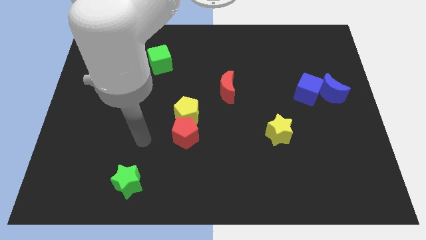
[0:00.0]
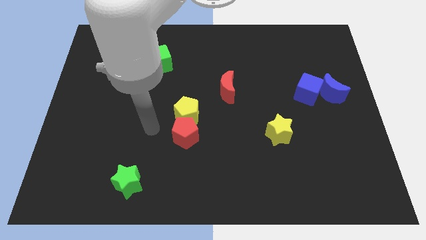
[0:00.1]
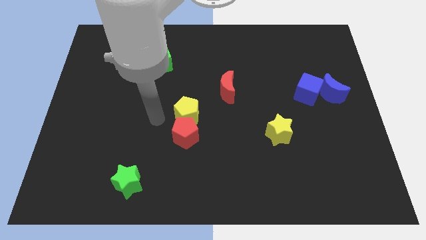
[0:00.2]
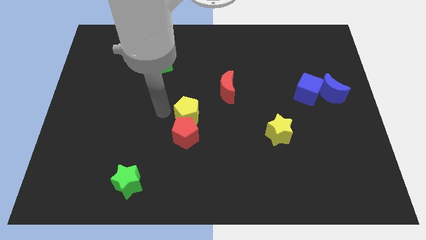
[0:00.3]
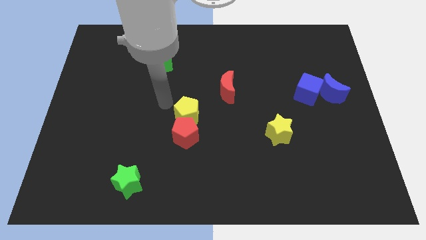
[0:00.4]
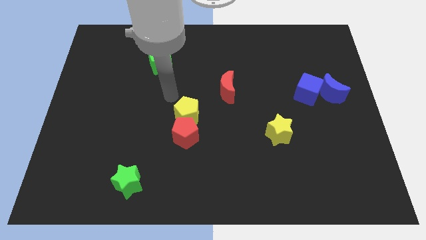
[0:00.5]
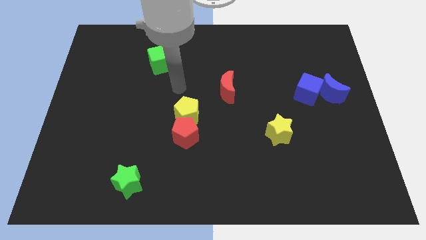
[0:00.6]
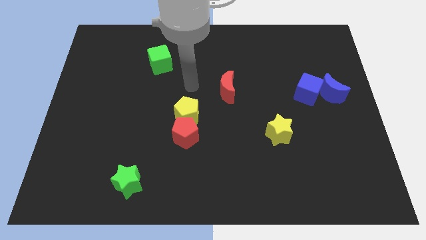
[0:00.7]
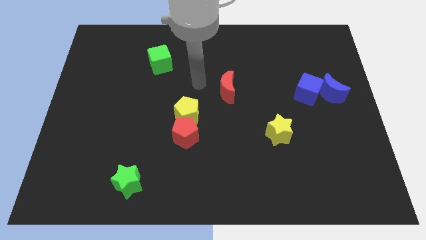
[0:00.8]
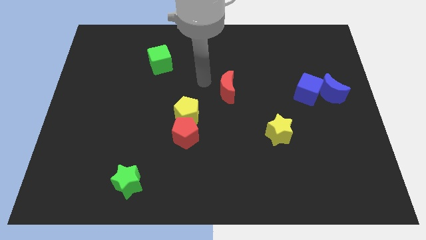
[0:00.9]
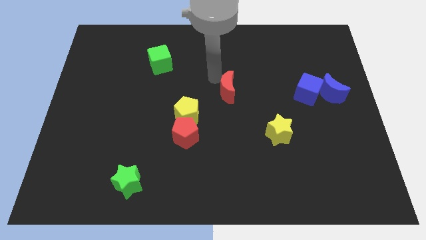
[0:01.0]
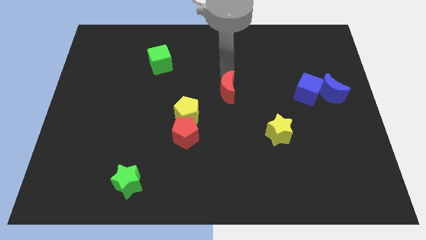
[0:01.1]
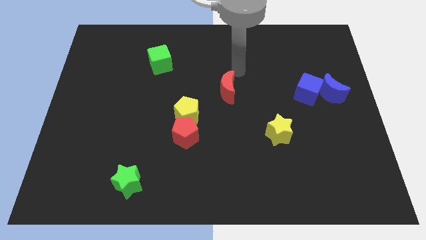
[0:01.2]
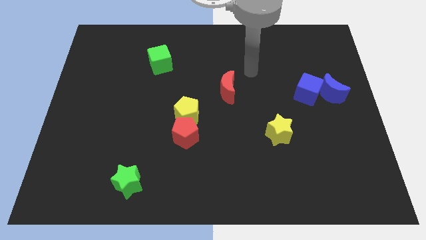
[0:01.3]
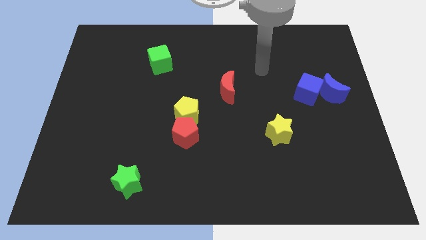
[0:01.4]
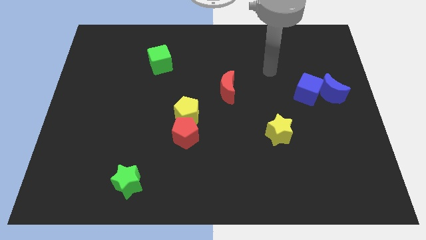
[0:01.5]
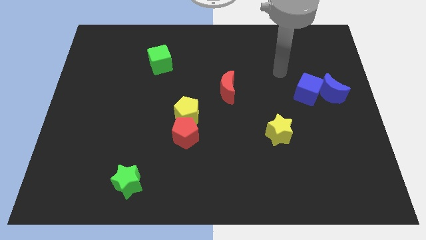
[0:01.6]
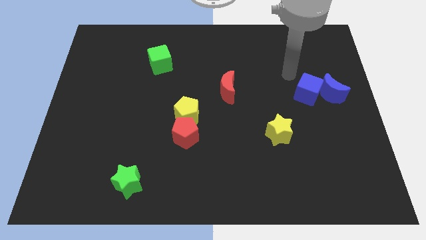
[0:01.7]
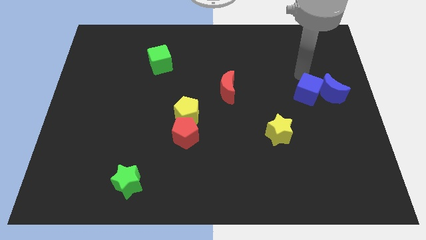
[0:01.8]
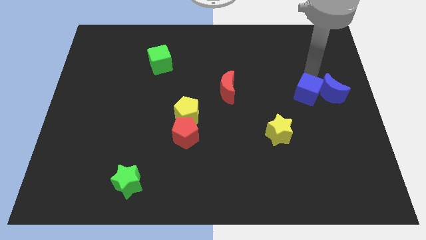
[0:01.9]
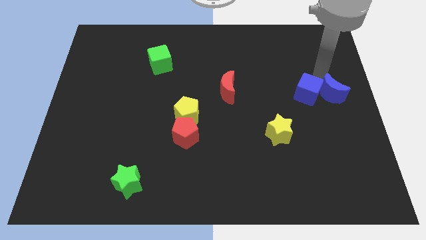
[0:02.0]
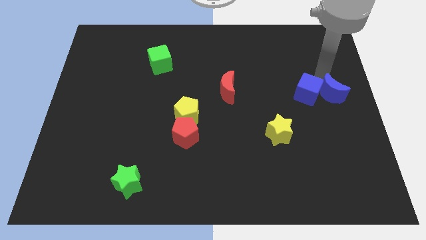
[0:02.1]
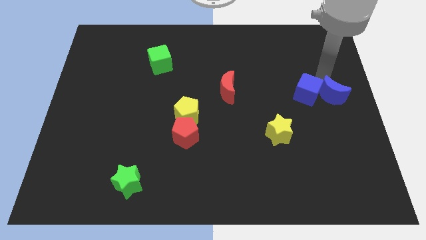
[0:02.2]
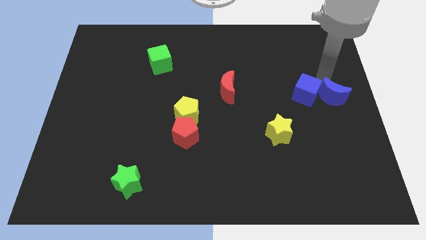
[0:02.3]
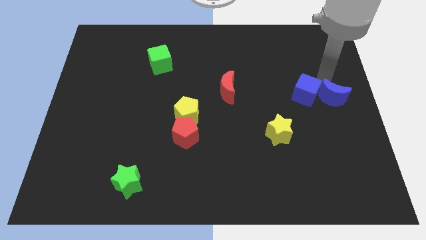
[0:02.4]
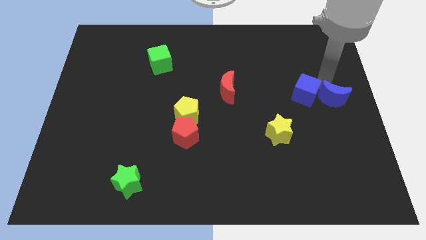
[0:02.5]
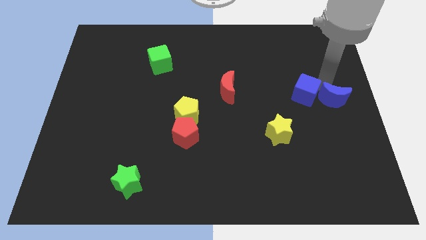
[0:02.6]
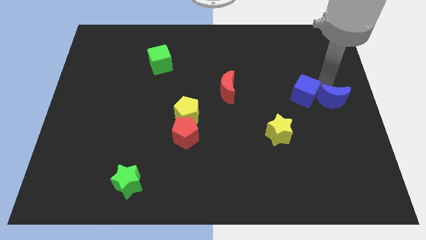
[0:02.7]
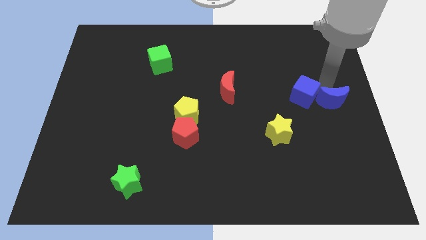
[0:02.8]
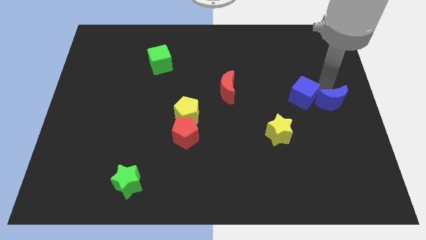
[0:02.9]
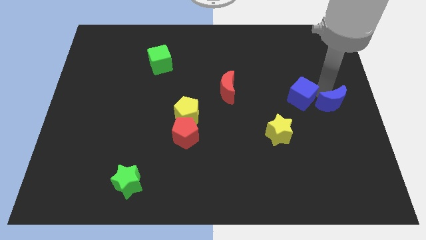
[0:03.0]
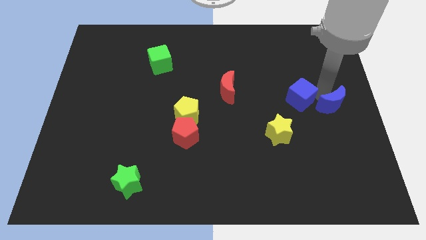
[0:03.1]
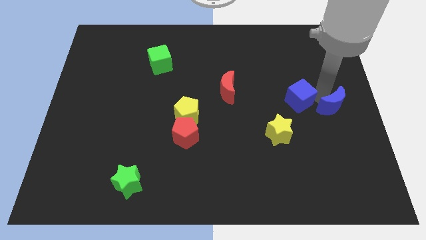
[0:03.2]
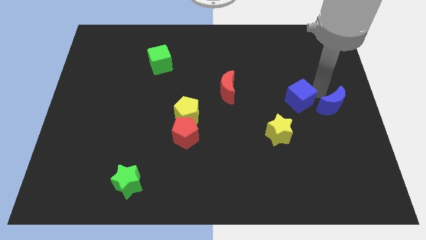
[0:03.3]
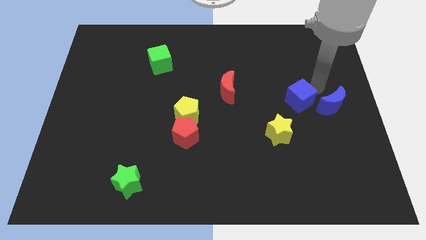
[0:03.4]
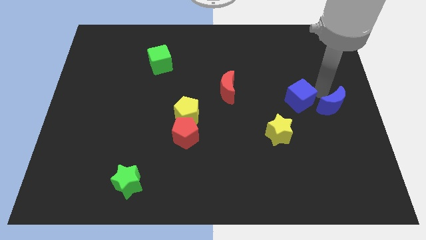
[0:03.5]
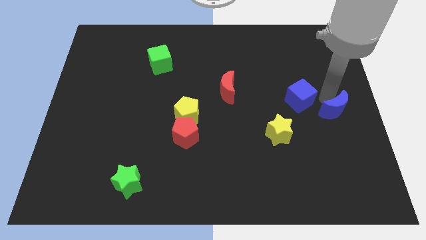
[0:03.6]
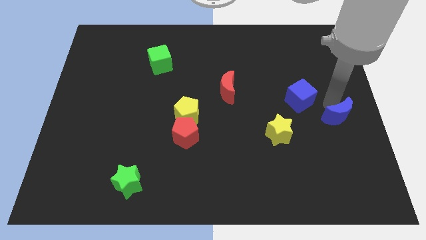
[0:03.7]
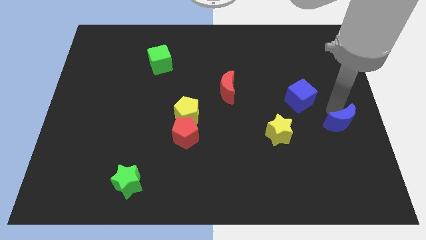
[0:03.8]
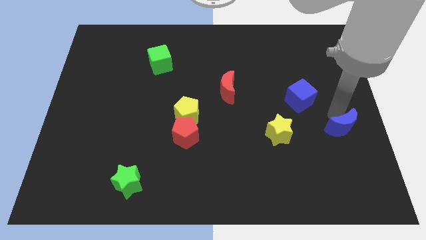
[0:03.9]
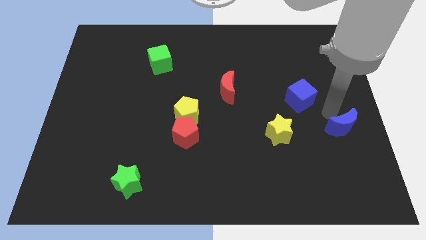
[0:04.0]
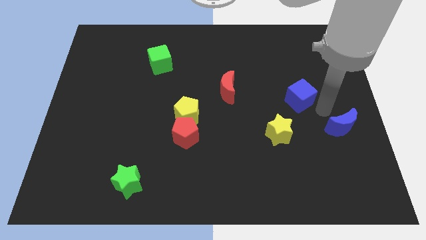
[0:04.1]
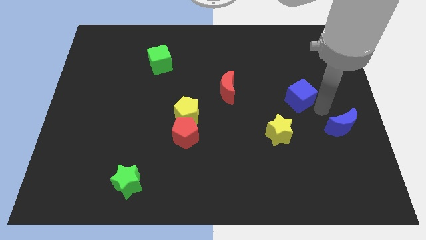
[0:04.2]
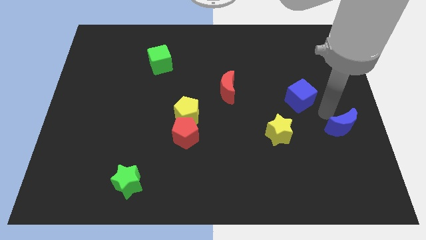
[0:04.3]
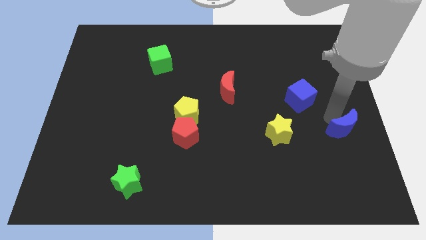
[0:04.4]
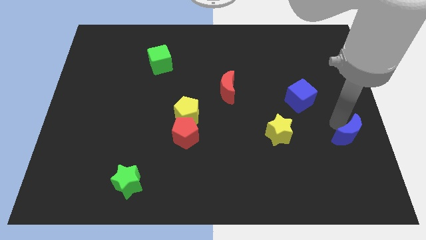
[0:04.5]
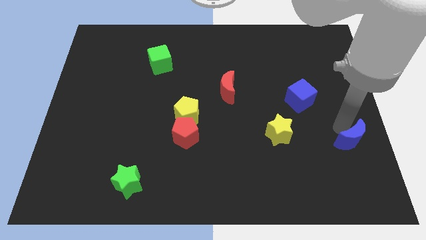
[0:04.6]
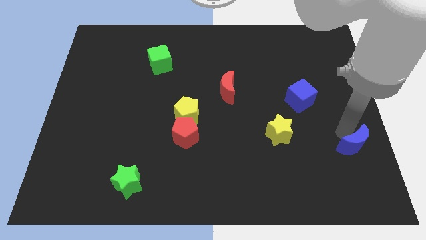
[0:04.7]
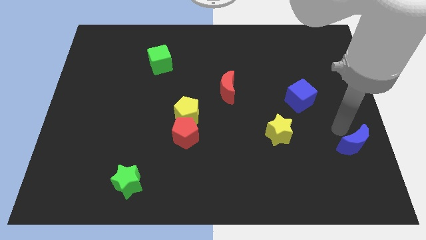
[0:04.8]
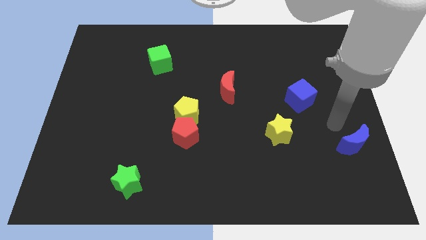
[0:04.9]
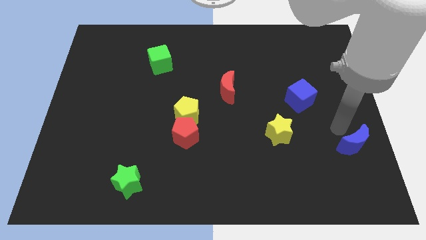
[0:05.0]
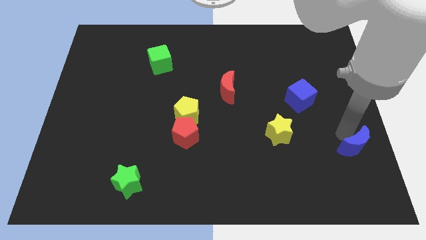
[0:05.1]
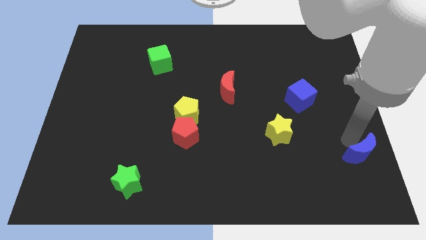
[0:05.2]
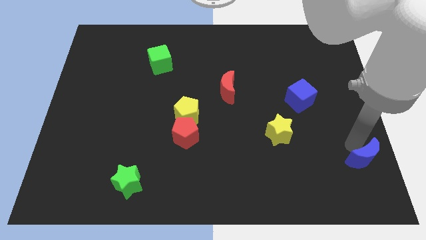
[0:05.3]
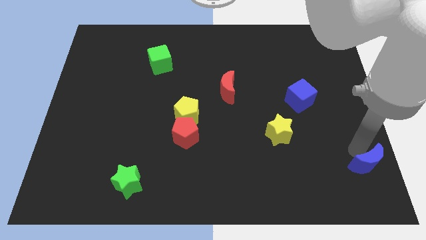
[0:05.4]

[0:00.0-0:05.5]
put the blue moon to the bottom right of the board

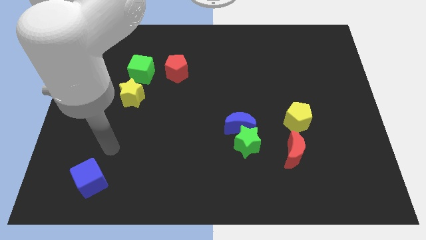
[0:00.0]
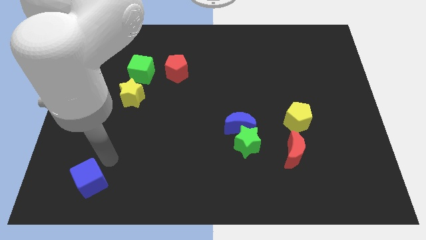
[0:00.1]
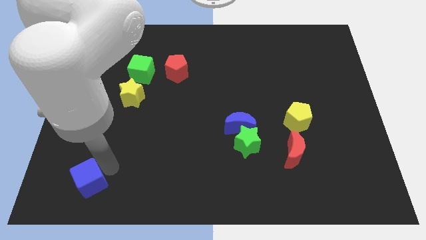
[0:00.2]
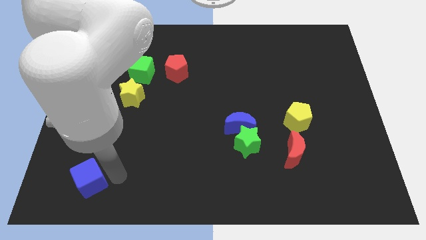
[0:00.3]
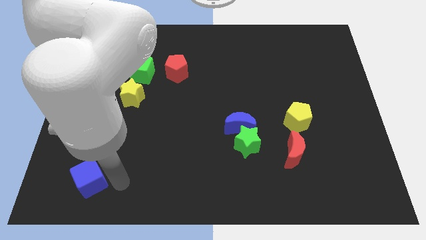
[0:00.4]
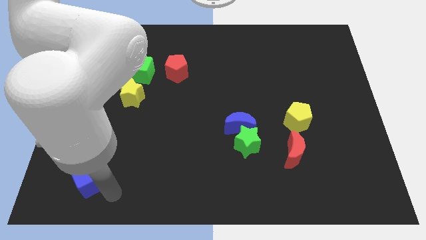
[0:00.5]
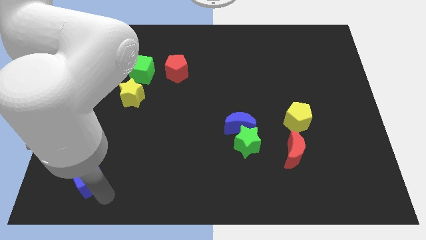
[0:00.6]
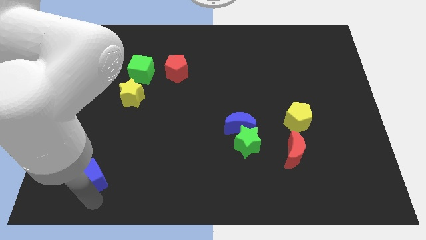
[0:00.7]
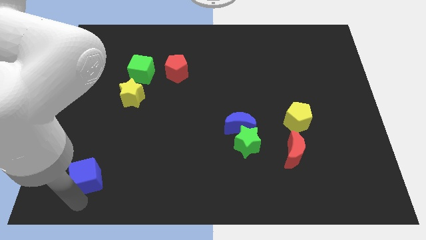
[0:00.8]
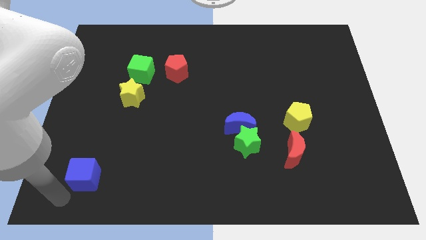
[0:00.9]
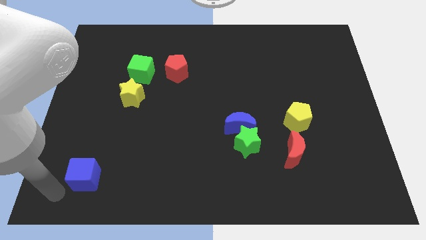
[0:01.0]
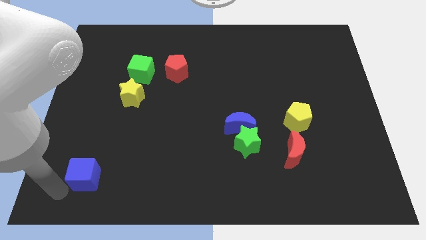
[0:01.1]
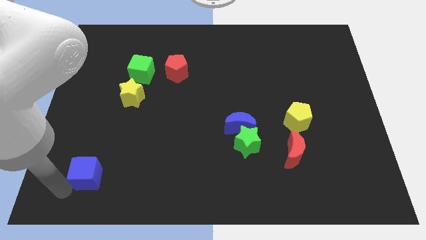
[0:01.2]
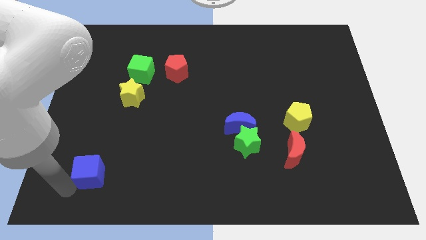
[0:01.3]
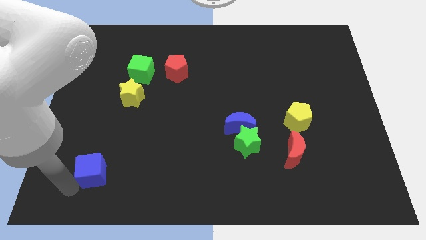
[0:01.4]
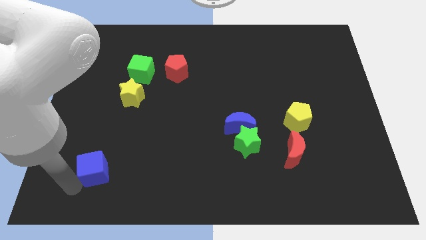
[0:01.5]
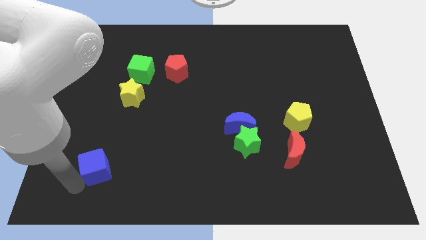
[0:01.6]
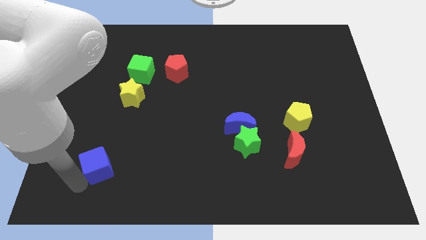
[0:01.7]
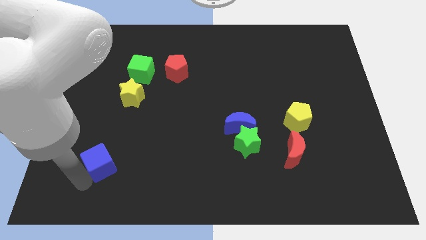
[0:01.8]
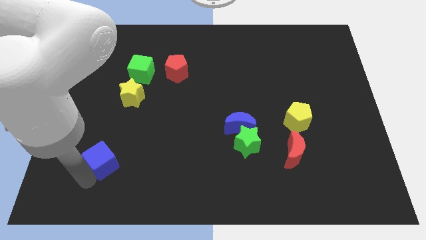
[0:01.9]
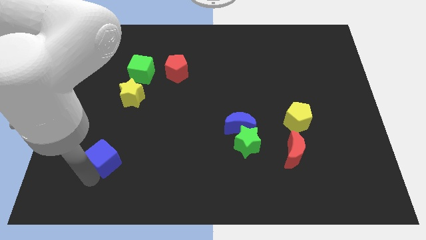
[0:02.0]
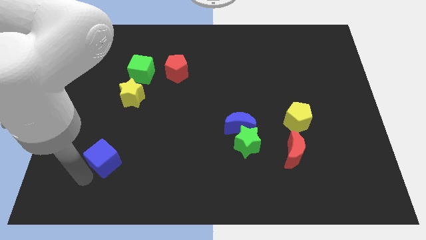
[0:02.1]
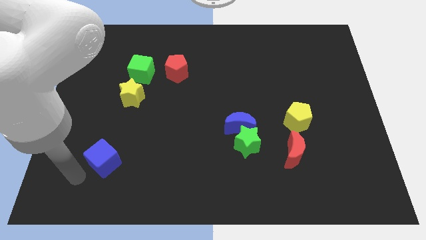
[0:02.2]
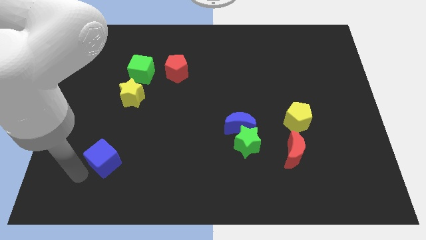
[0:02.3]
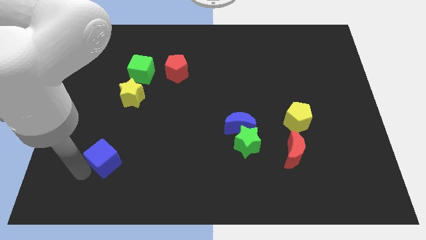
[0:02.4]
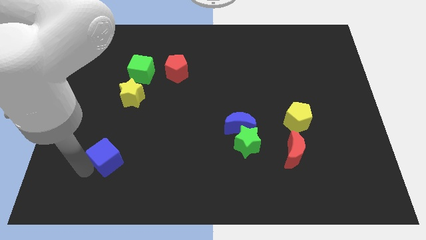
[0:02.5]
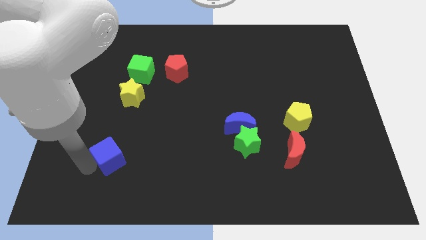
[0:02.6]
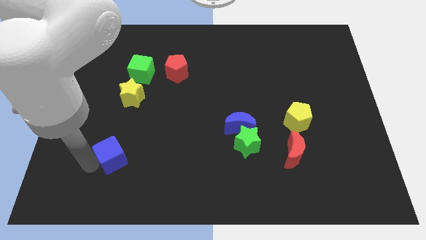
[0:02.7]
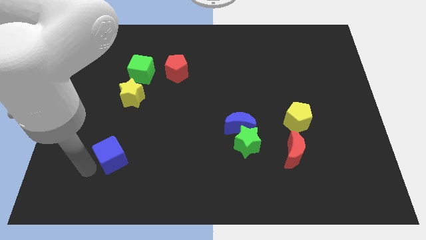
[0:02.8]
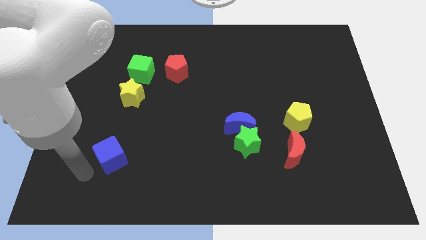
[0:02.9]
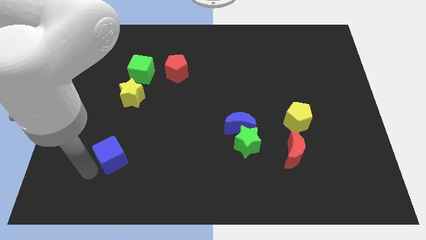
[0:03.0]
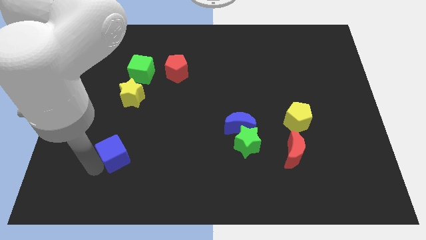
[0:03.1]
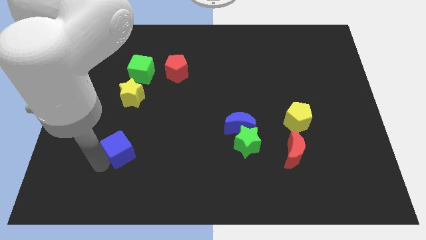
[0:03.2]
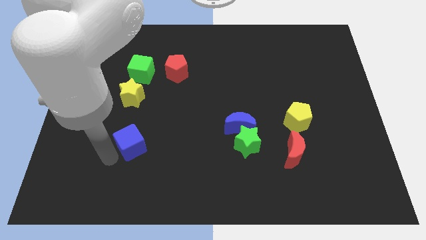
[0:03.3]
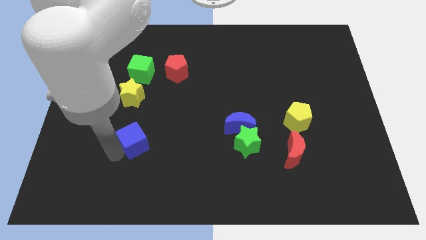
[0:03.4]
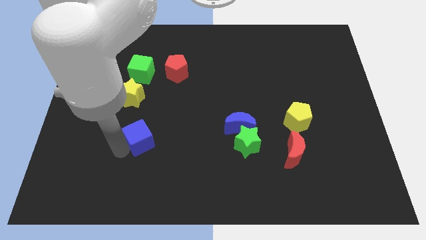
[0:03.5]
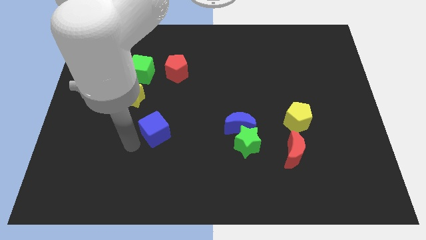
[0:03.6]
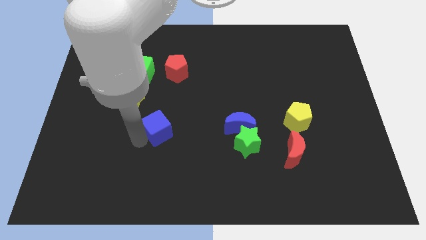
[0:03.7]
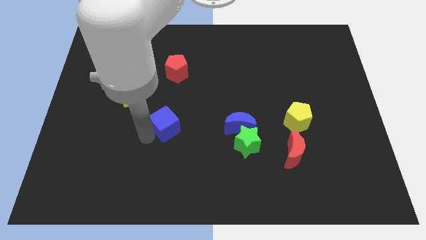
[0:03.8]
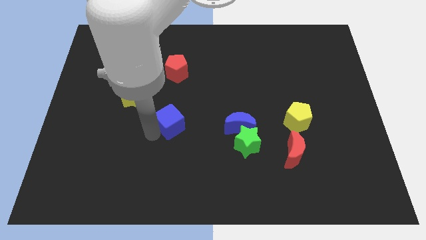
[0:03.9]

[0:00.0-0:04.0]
put the blue cube to the center
